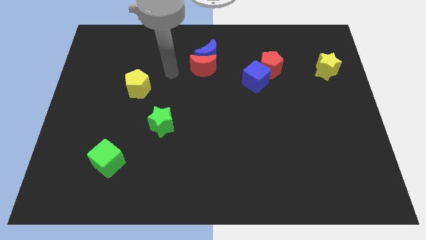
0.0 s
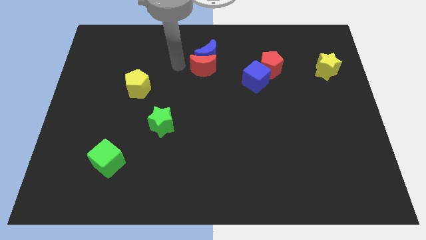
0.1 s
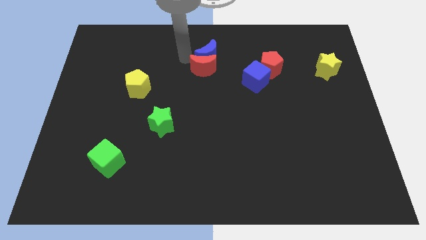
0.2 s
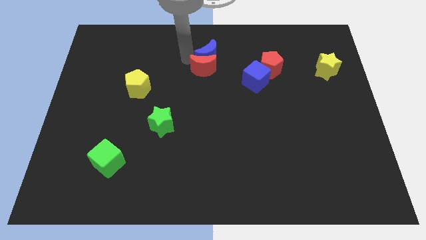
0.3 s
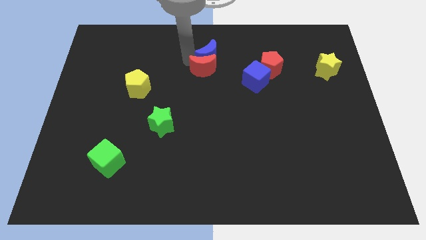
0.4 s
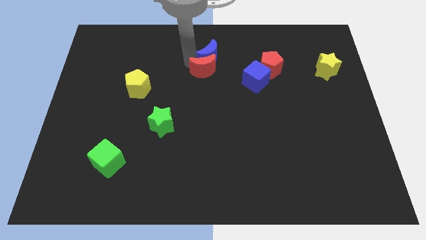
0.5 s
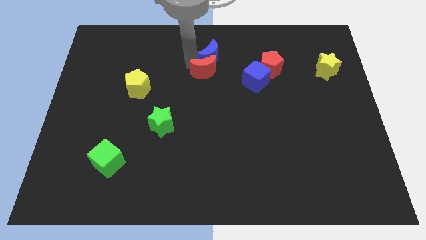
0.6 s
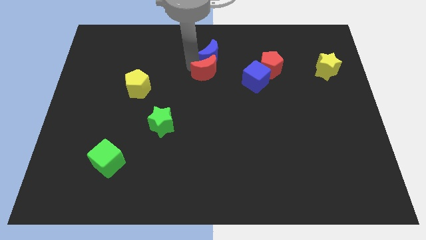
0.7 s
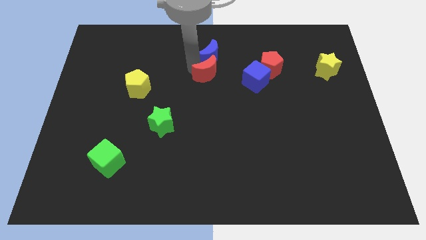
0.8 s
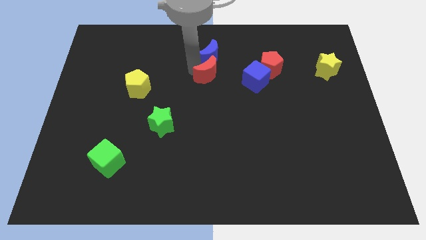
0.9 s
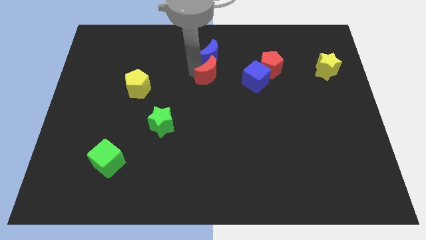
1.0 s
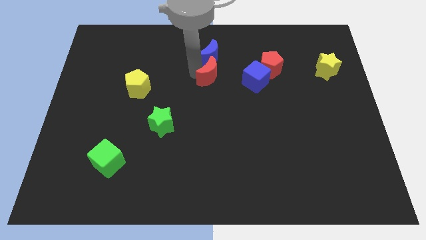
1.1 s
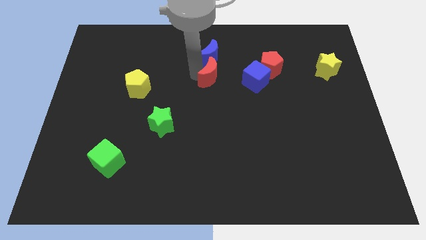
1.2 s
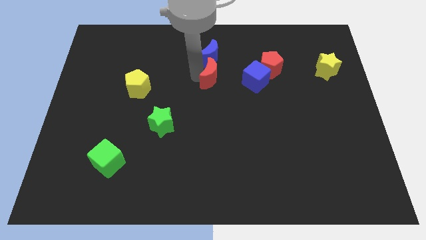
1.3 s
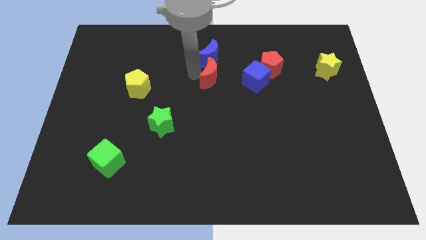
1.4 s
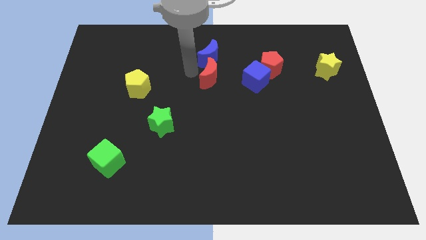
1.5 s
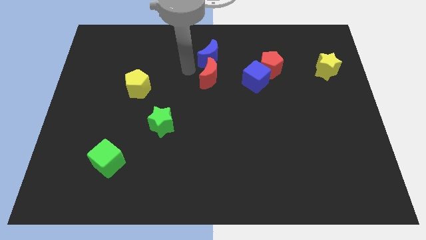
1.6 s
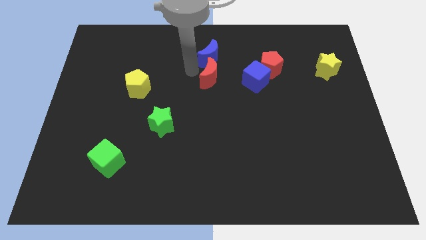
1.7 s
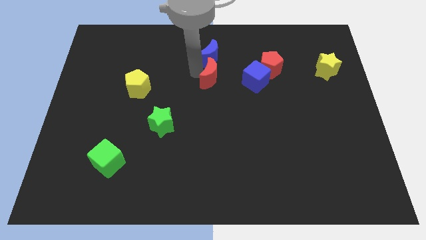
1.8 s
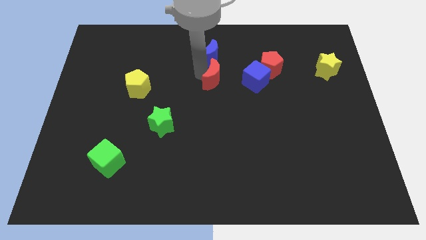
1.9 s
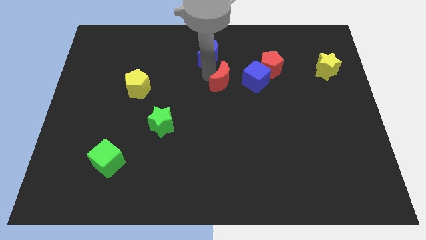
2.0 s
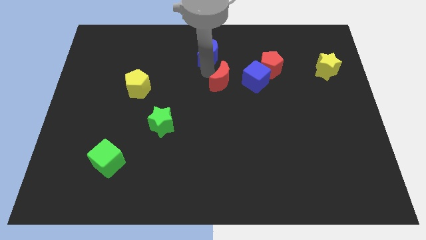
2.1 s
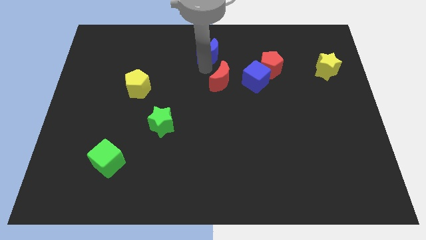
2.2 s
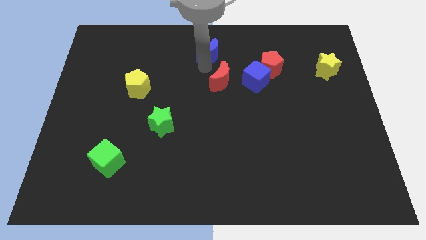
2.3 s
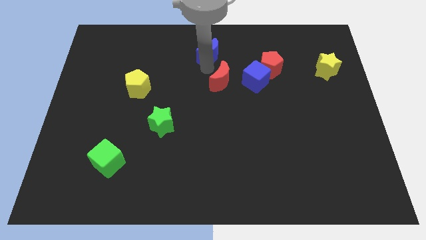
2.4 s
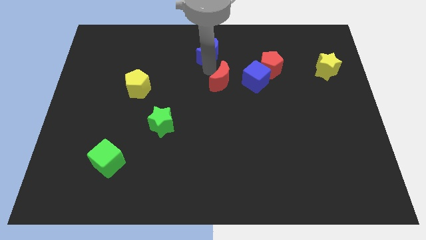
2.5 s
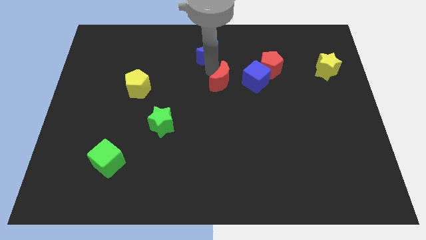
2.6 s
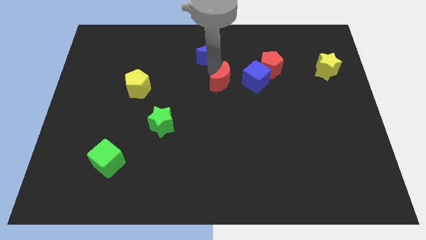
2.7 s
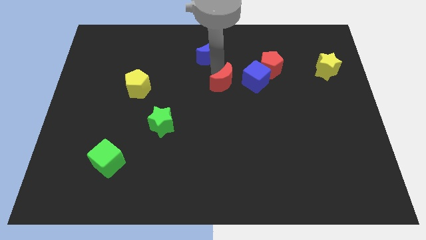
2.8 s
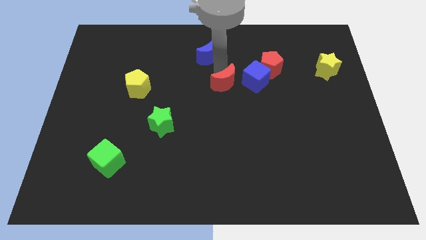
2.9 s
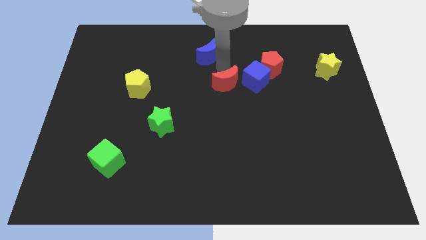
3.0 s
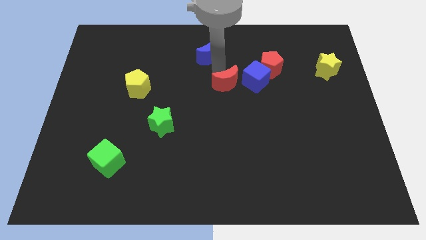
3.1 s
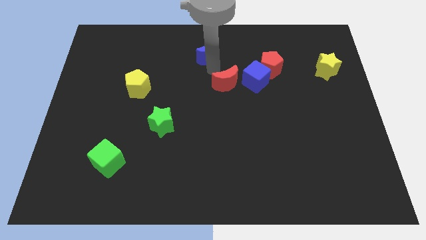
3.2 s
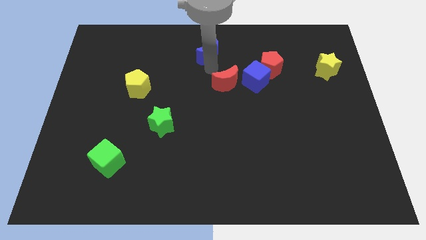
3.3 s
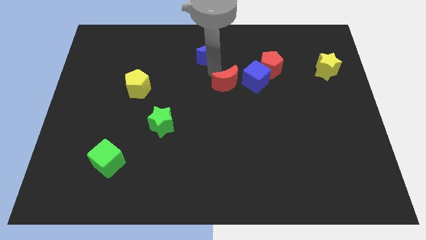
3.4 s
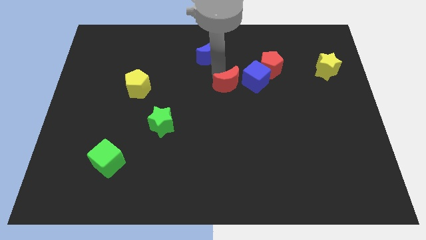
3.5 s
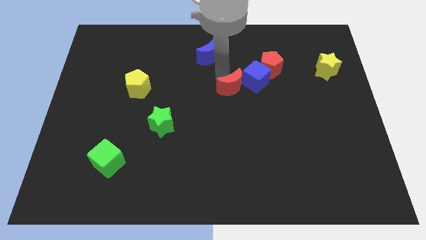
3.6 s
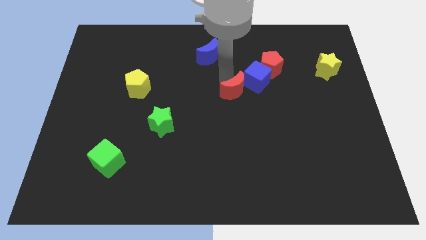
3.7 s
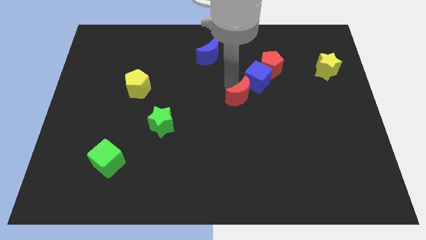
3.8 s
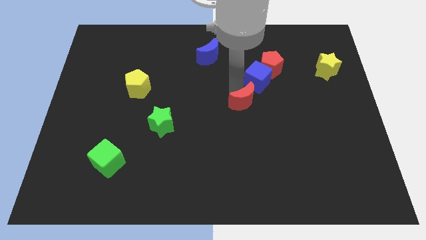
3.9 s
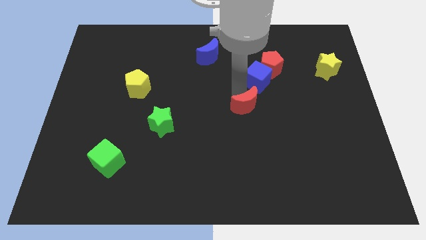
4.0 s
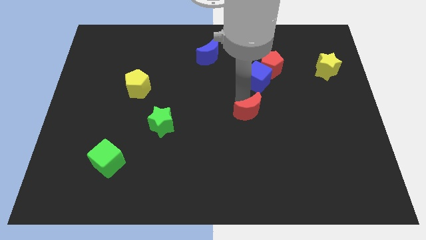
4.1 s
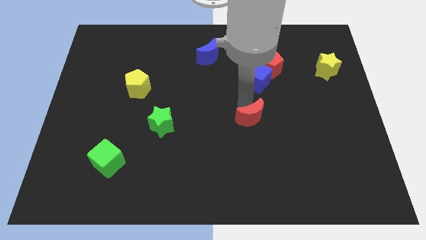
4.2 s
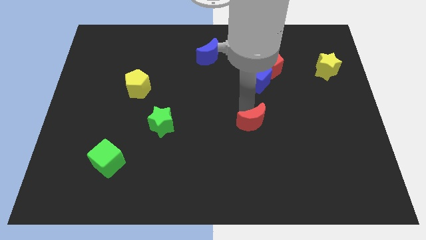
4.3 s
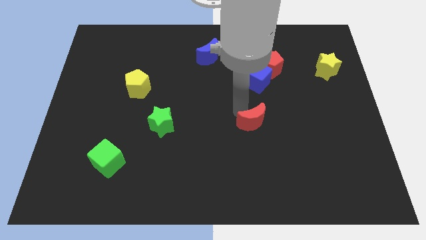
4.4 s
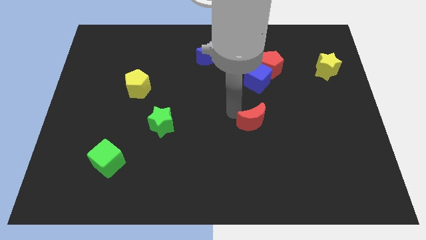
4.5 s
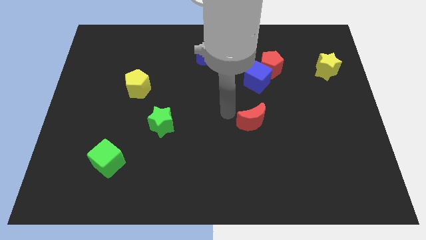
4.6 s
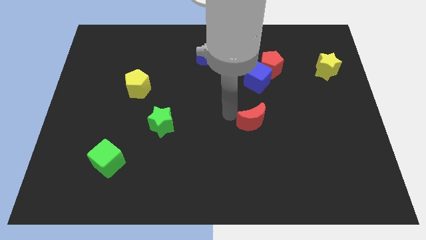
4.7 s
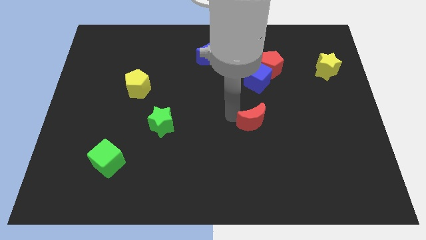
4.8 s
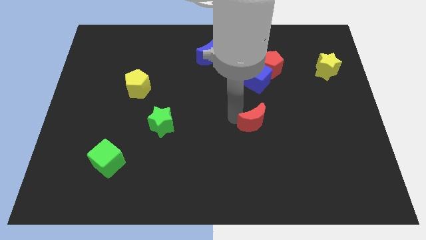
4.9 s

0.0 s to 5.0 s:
push the red moon down and right diagonally

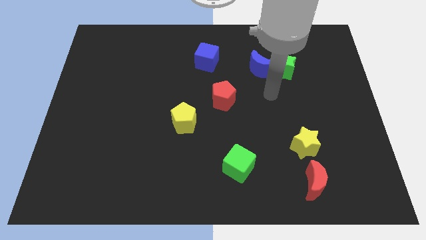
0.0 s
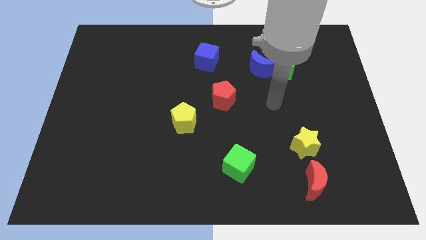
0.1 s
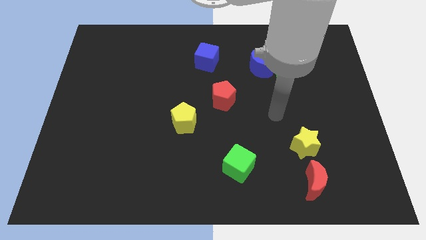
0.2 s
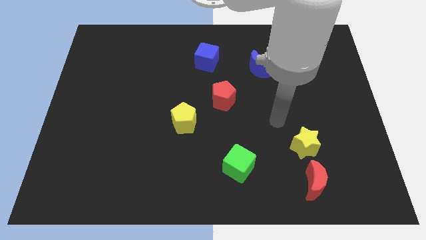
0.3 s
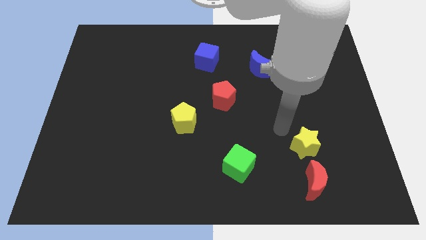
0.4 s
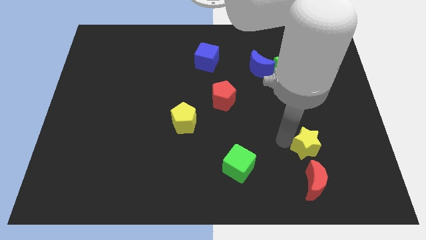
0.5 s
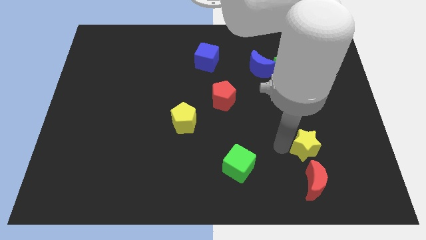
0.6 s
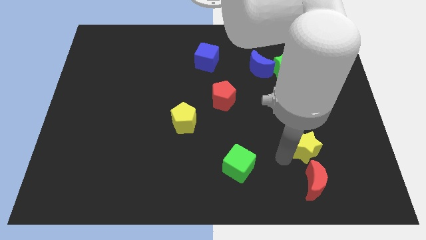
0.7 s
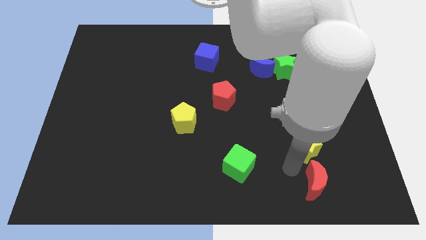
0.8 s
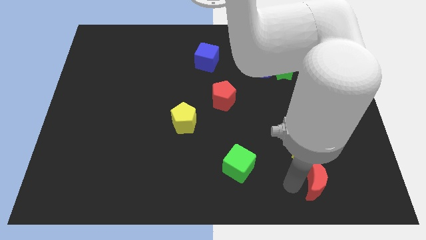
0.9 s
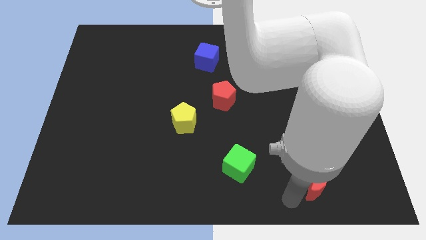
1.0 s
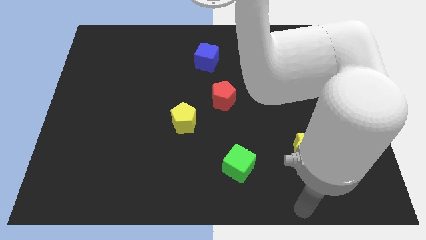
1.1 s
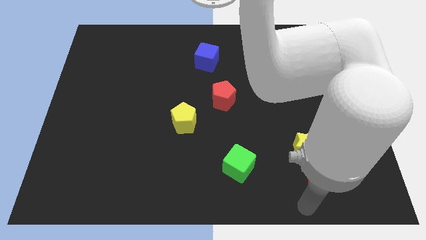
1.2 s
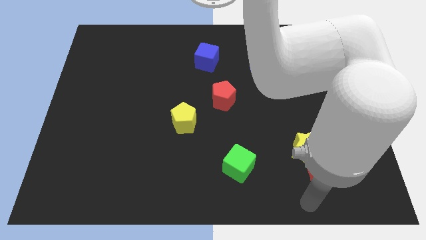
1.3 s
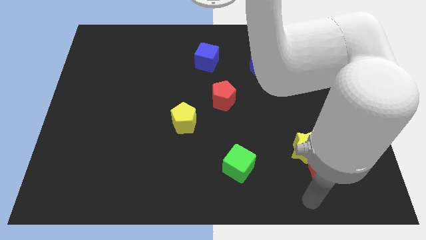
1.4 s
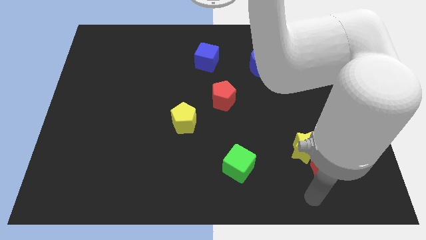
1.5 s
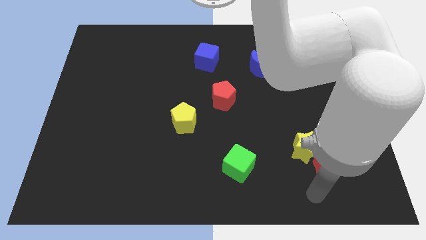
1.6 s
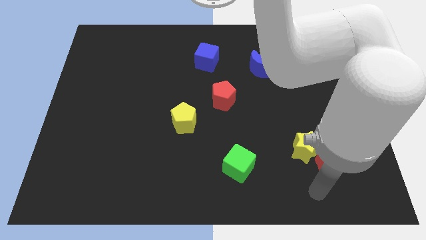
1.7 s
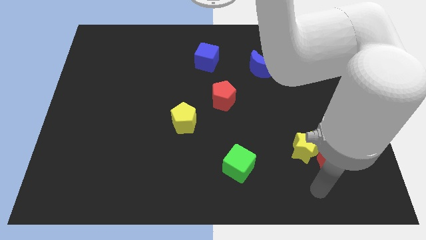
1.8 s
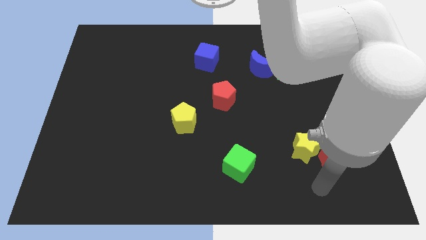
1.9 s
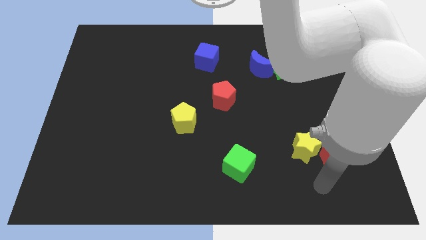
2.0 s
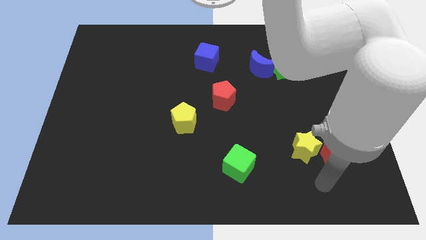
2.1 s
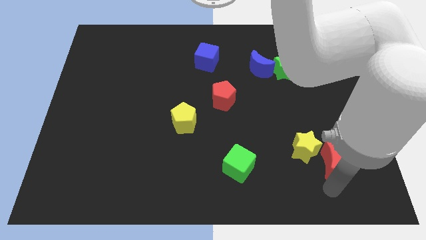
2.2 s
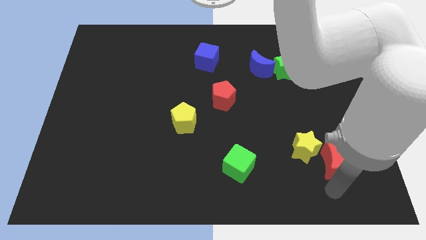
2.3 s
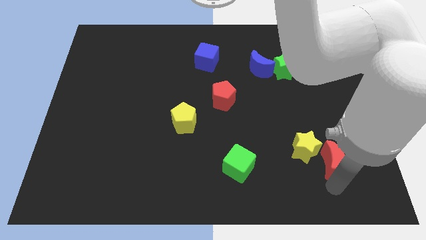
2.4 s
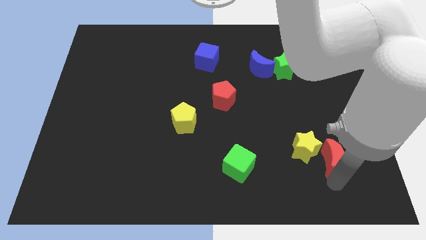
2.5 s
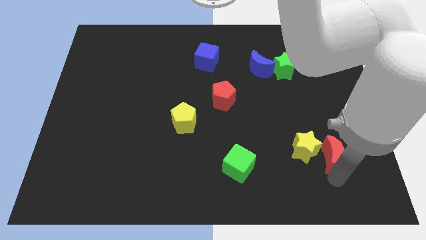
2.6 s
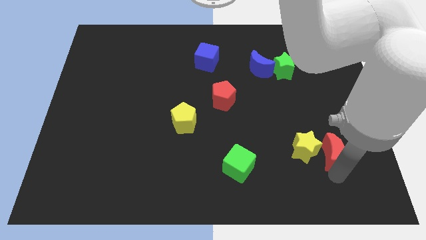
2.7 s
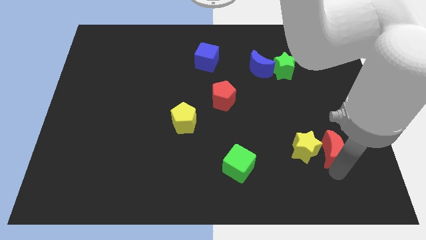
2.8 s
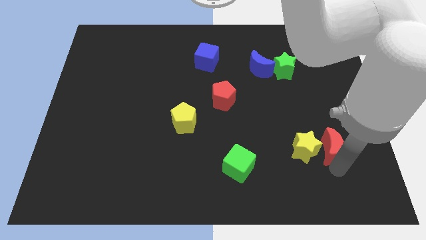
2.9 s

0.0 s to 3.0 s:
move the red moon upwards a little bit
